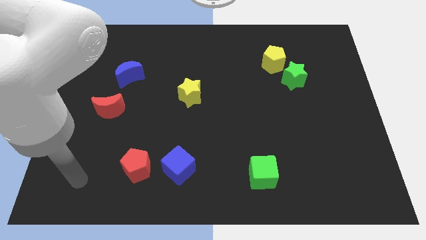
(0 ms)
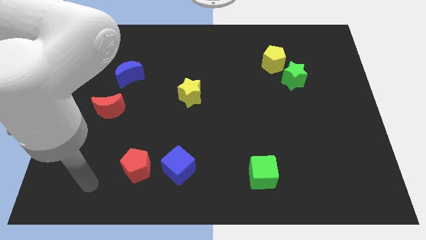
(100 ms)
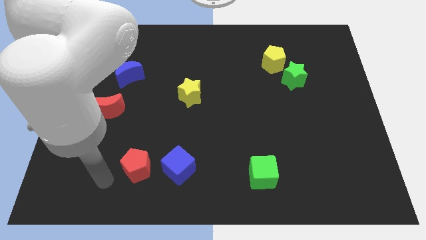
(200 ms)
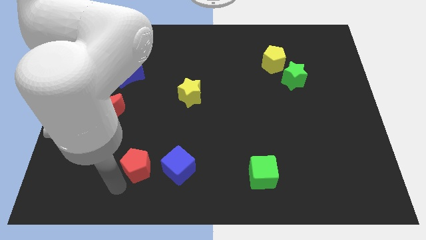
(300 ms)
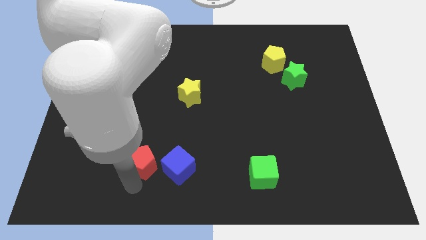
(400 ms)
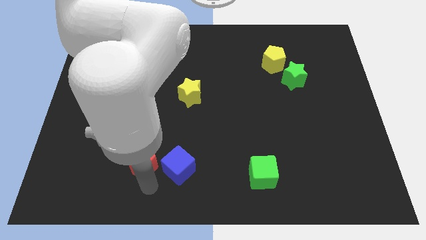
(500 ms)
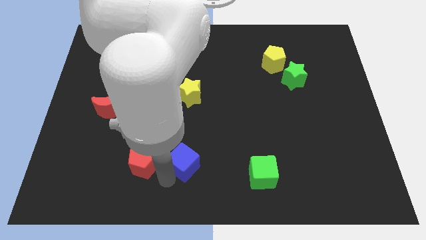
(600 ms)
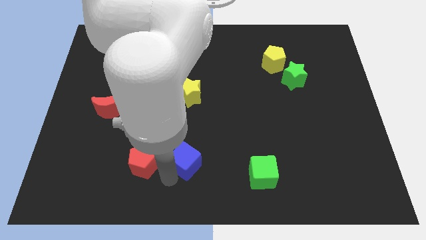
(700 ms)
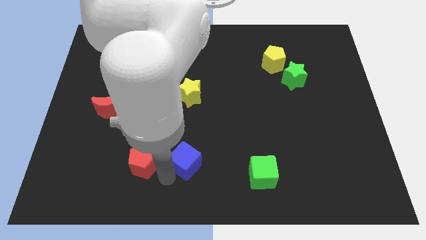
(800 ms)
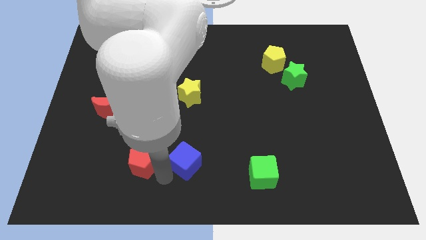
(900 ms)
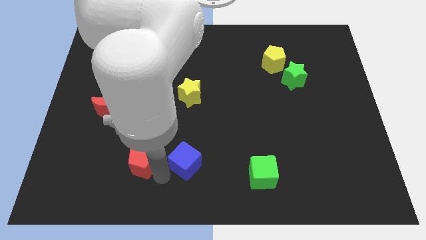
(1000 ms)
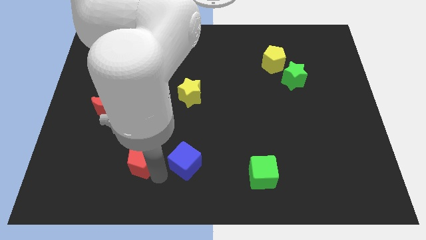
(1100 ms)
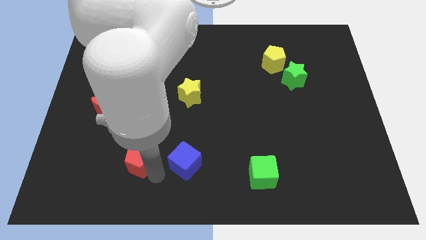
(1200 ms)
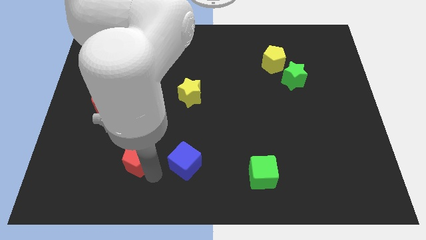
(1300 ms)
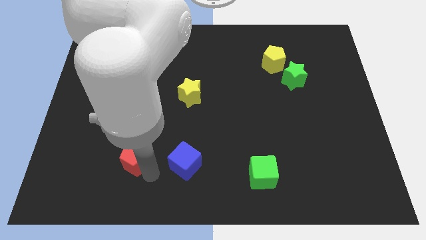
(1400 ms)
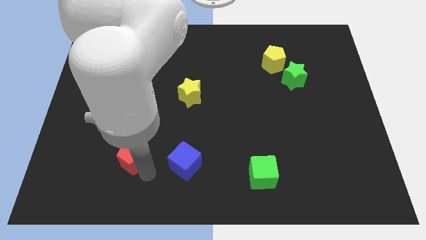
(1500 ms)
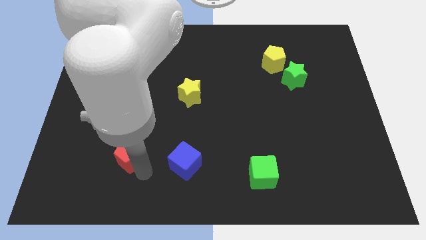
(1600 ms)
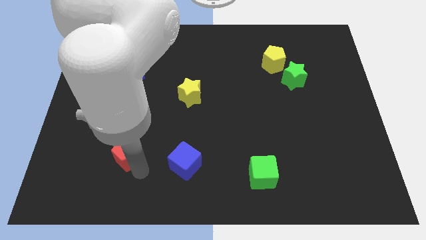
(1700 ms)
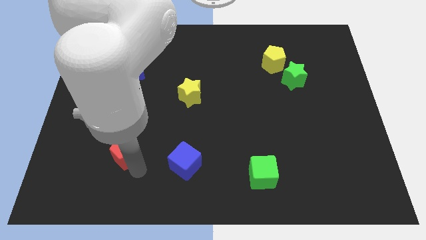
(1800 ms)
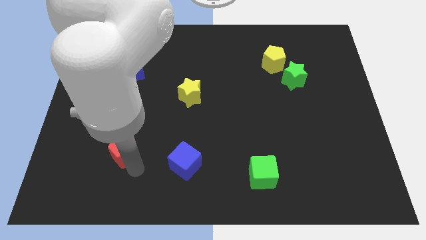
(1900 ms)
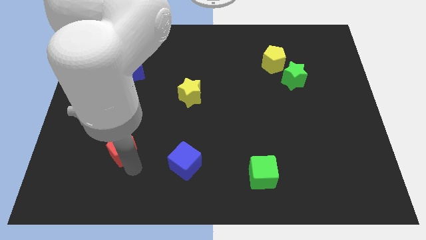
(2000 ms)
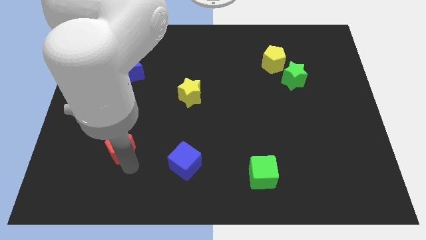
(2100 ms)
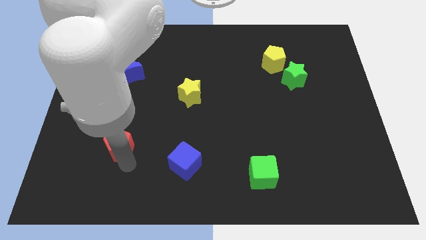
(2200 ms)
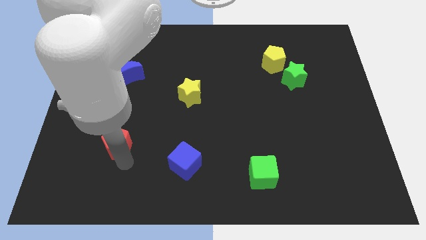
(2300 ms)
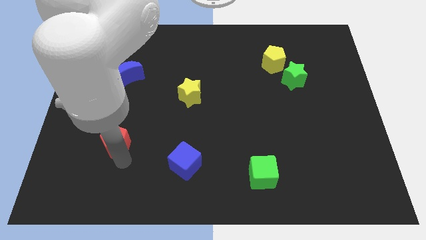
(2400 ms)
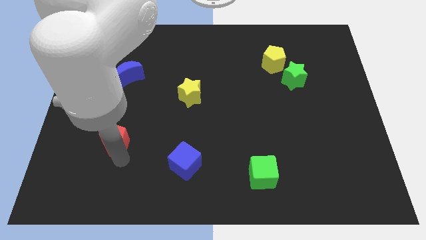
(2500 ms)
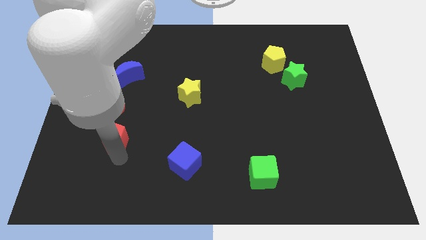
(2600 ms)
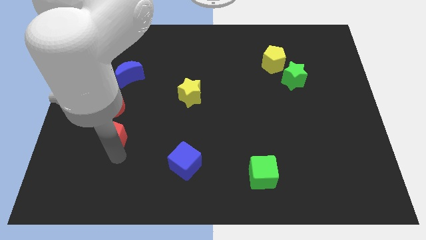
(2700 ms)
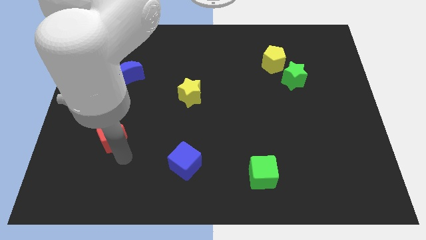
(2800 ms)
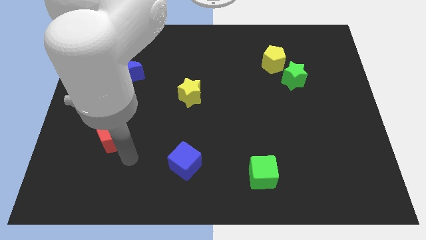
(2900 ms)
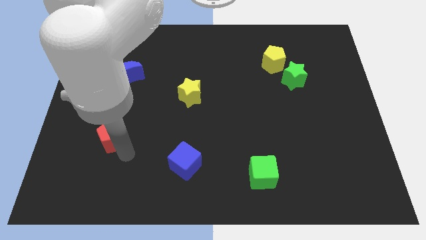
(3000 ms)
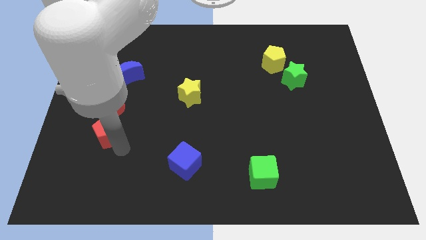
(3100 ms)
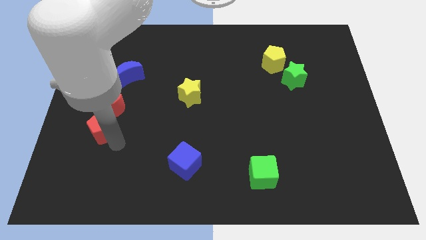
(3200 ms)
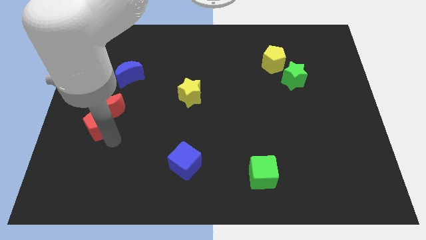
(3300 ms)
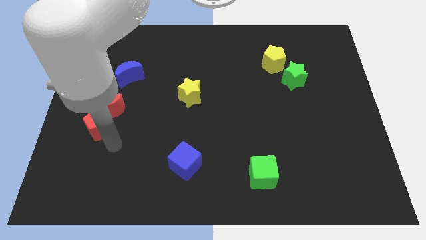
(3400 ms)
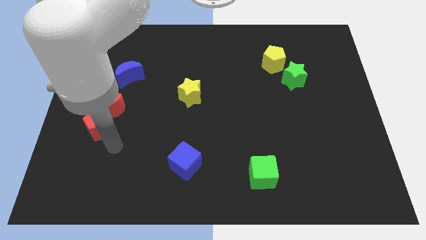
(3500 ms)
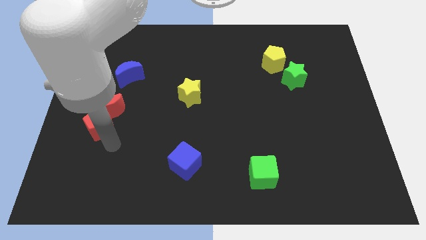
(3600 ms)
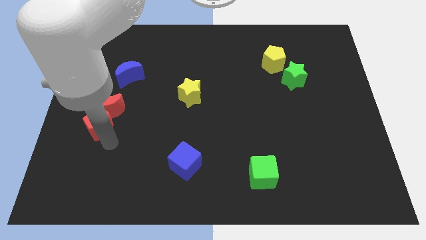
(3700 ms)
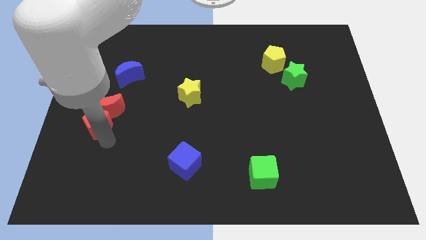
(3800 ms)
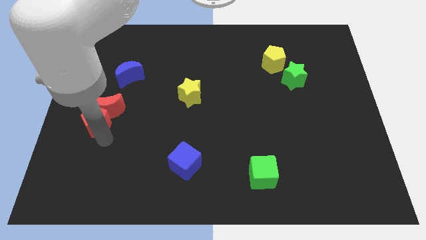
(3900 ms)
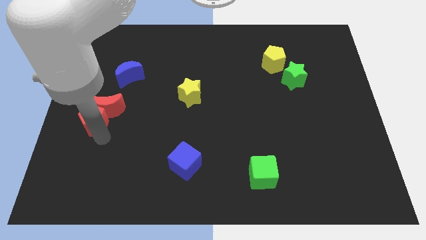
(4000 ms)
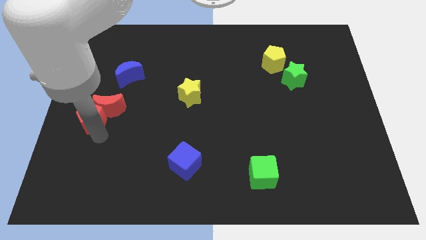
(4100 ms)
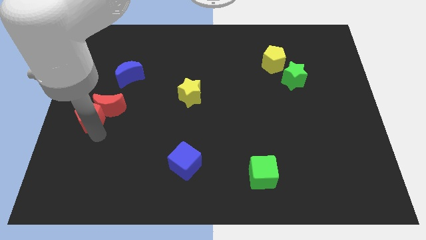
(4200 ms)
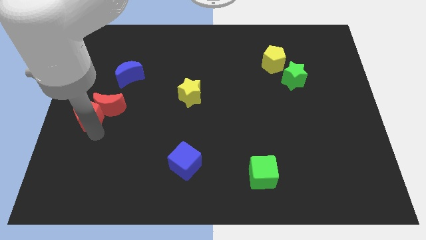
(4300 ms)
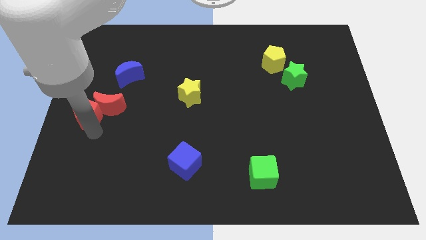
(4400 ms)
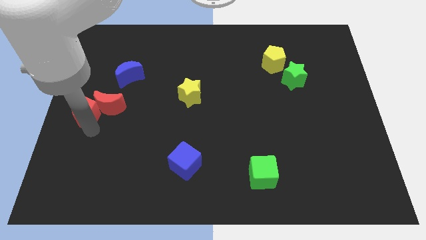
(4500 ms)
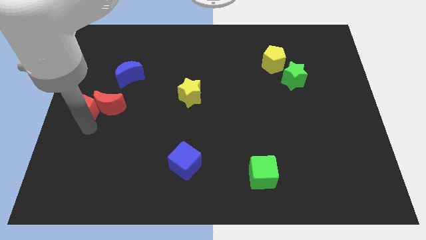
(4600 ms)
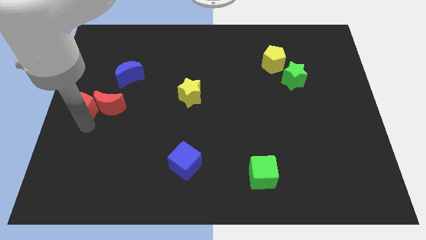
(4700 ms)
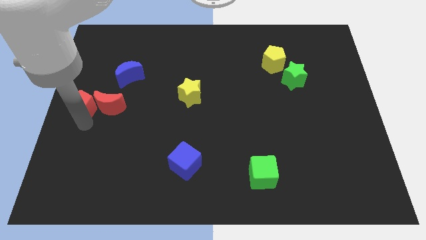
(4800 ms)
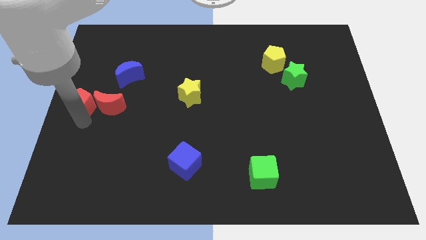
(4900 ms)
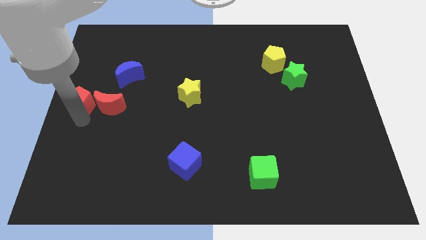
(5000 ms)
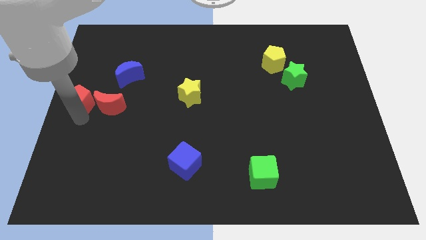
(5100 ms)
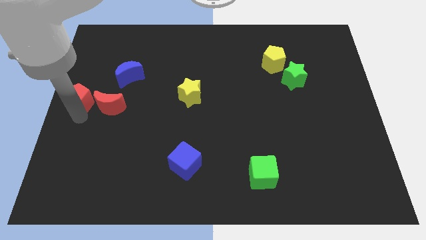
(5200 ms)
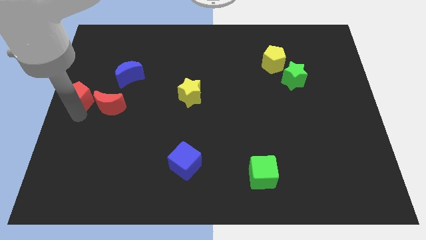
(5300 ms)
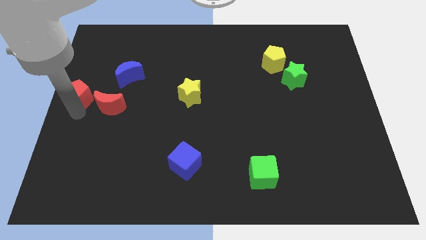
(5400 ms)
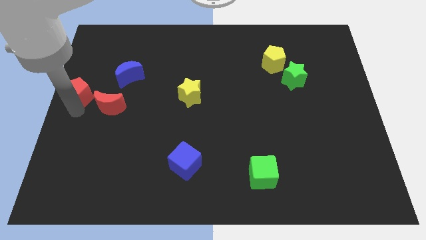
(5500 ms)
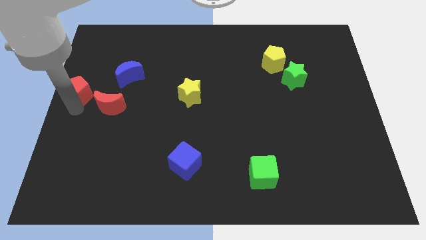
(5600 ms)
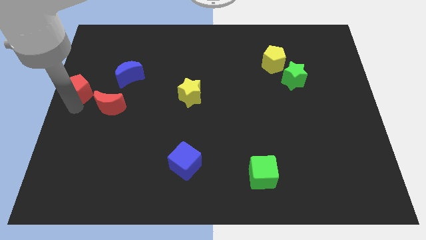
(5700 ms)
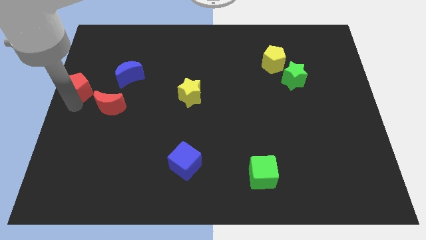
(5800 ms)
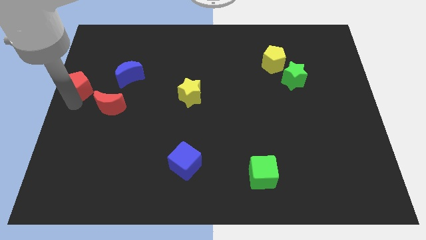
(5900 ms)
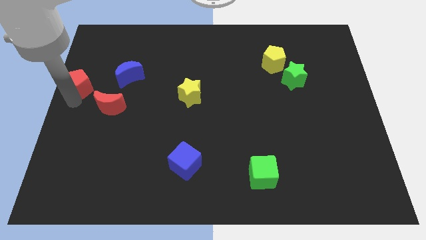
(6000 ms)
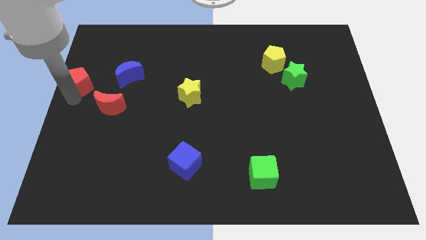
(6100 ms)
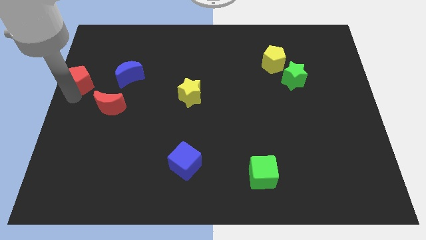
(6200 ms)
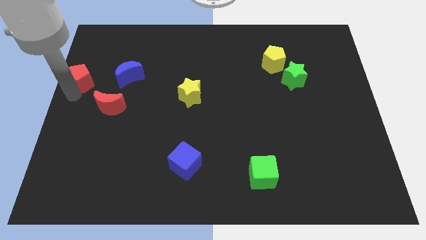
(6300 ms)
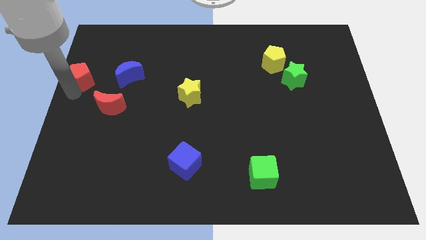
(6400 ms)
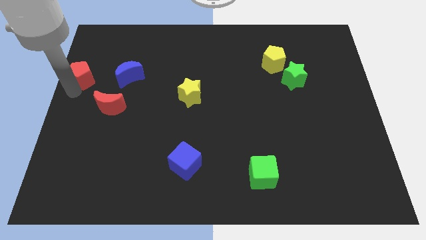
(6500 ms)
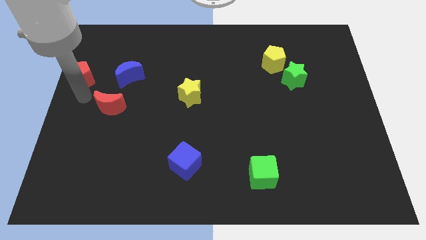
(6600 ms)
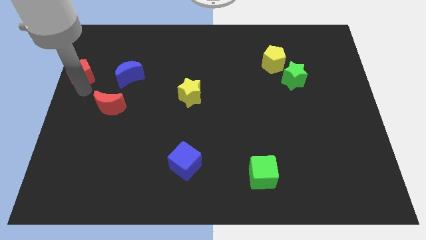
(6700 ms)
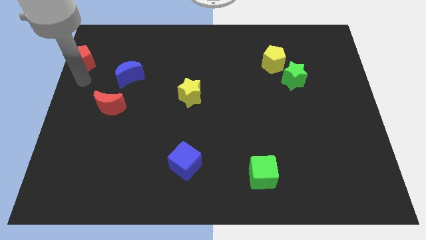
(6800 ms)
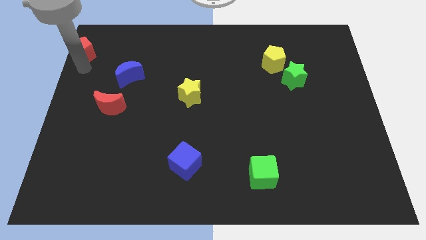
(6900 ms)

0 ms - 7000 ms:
slide the red pentagon to the top left corner
